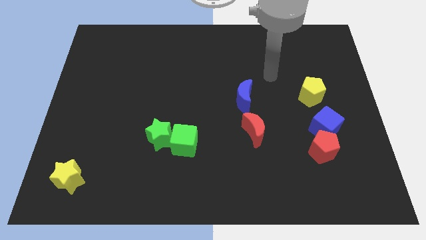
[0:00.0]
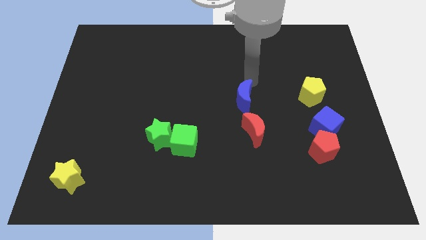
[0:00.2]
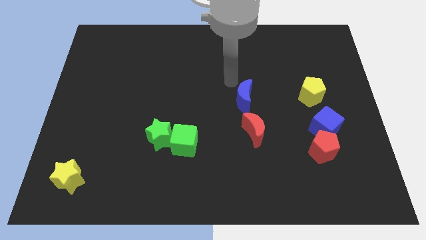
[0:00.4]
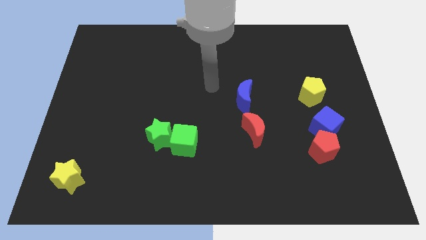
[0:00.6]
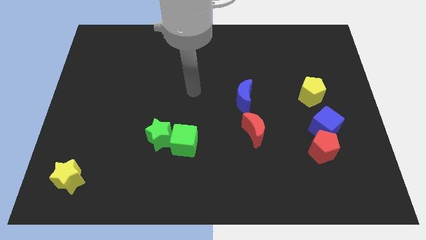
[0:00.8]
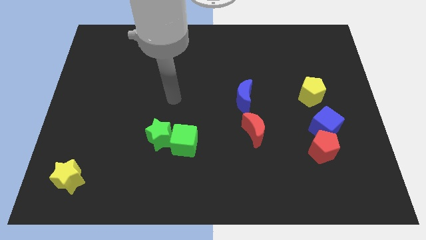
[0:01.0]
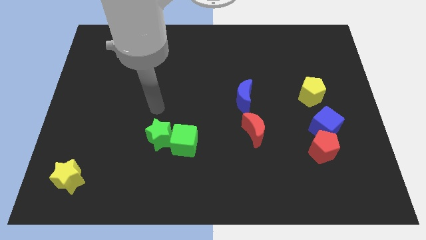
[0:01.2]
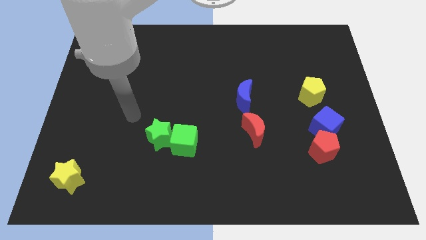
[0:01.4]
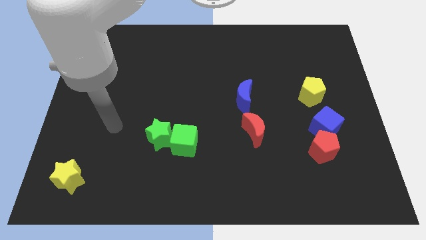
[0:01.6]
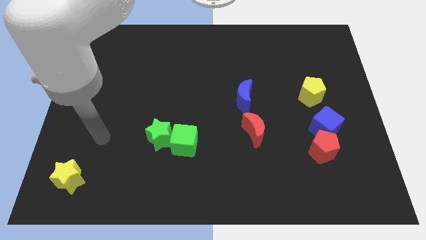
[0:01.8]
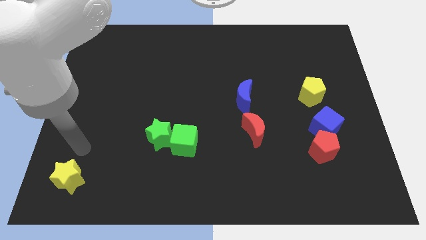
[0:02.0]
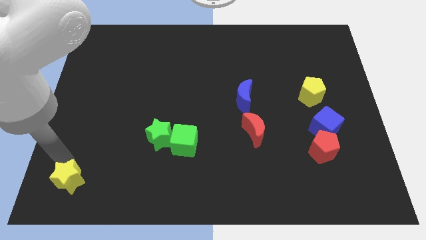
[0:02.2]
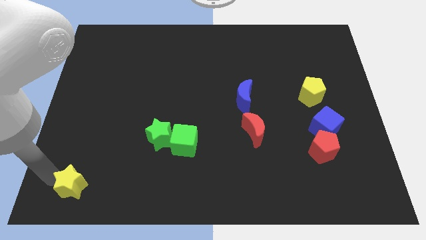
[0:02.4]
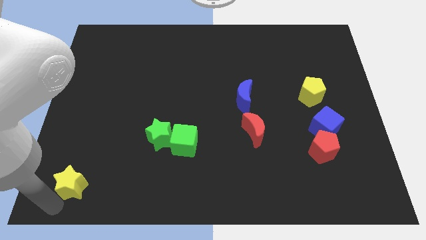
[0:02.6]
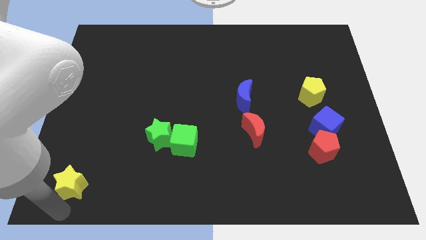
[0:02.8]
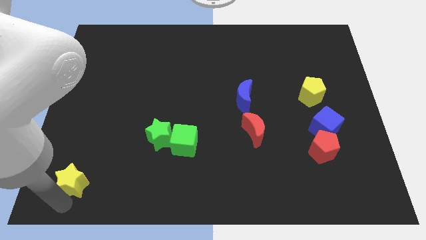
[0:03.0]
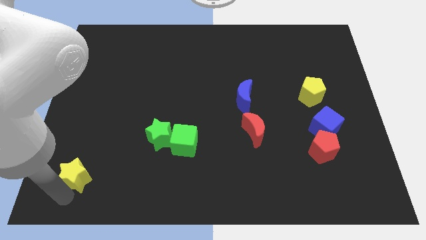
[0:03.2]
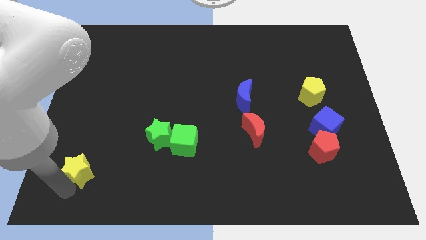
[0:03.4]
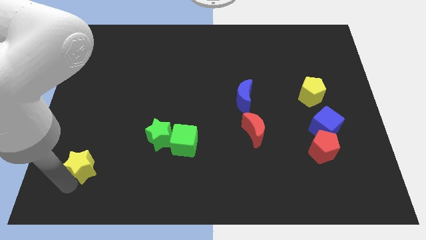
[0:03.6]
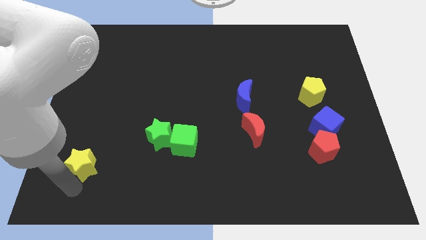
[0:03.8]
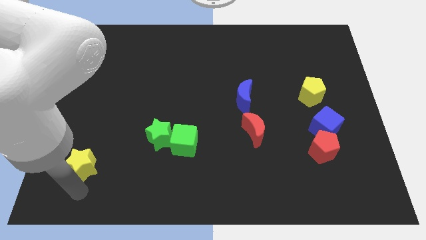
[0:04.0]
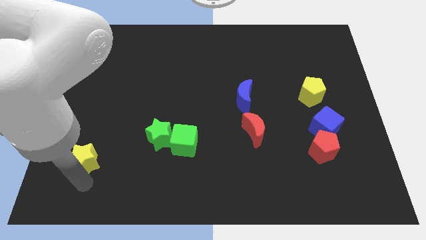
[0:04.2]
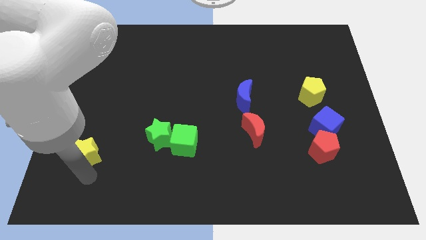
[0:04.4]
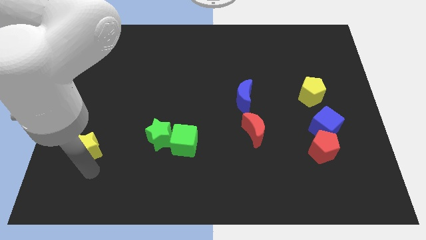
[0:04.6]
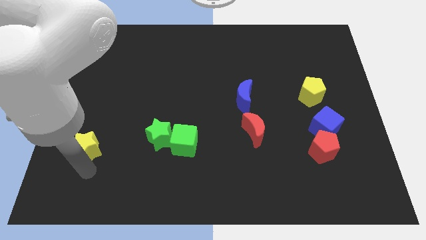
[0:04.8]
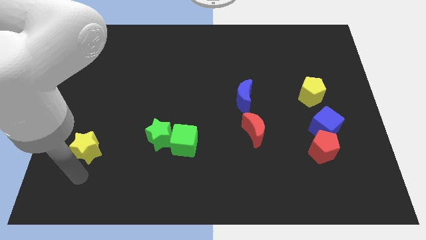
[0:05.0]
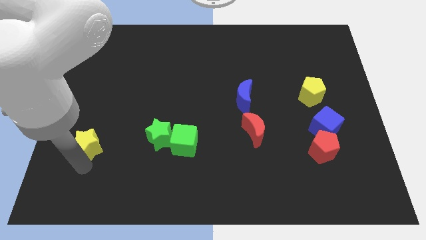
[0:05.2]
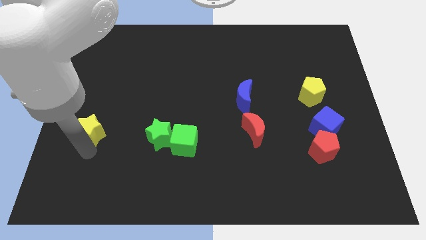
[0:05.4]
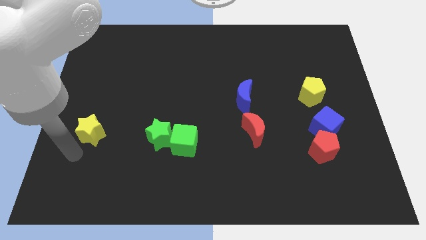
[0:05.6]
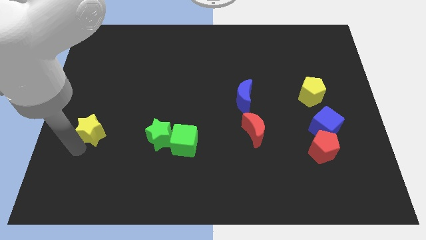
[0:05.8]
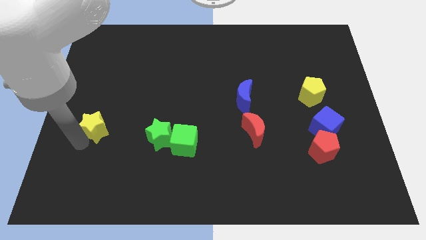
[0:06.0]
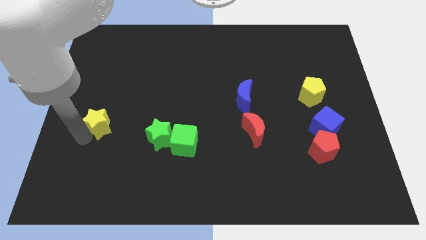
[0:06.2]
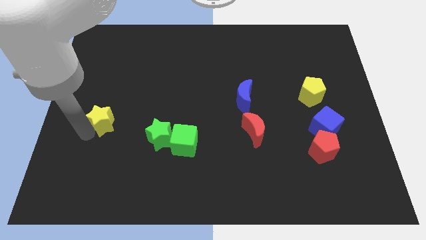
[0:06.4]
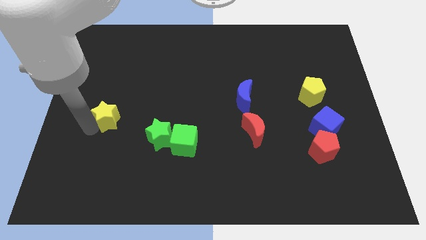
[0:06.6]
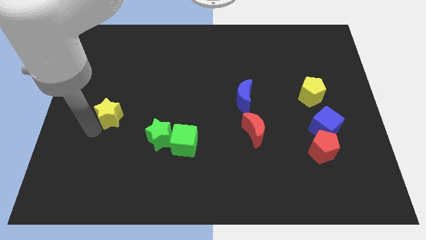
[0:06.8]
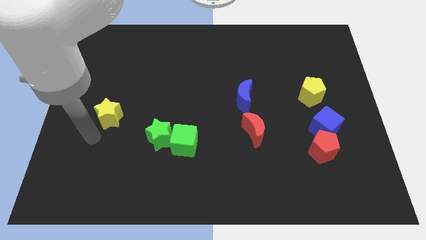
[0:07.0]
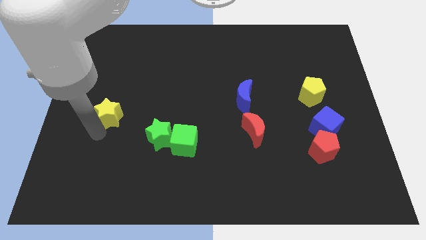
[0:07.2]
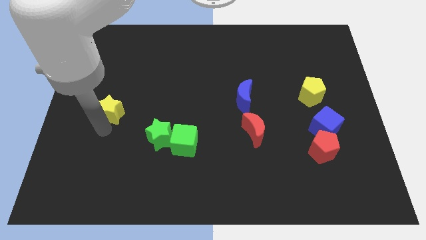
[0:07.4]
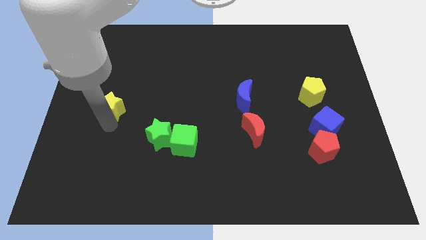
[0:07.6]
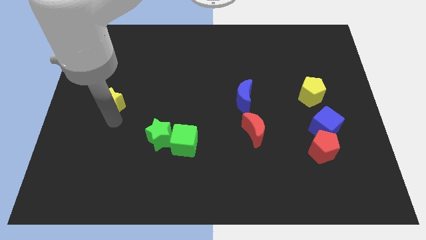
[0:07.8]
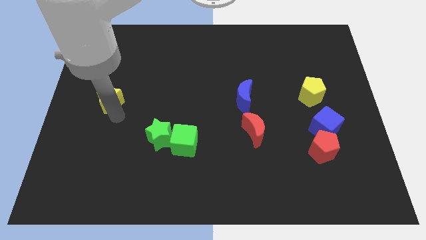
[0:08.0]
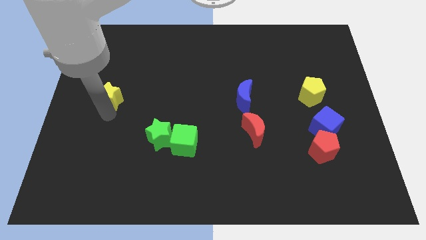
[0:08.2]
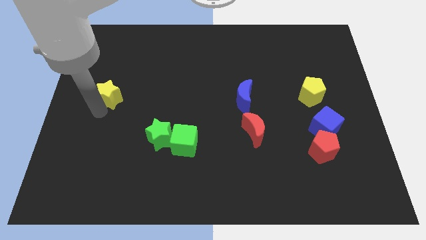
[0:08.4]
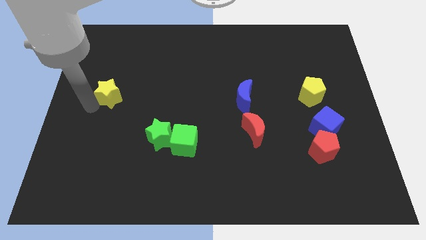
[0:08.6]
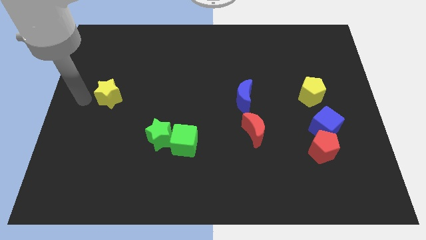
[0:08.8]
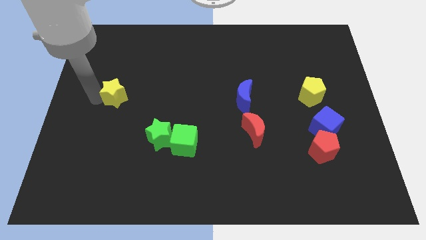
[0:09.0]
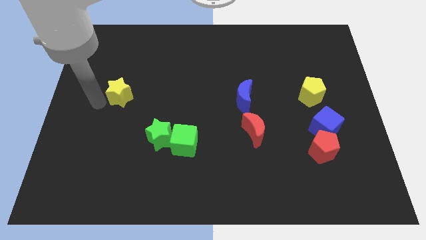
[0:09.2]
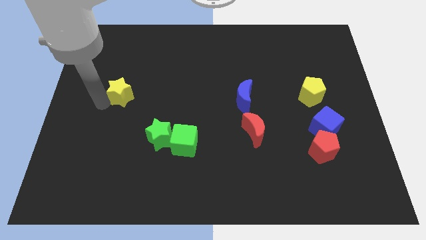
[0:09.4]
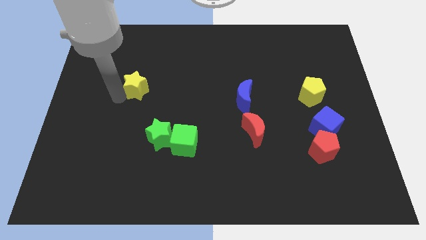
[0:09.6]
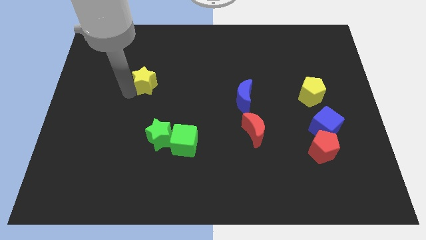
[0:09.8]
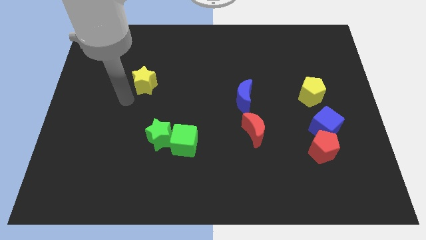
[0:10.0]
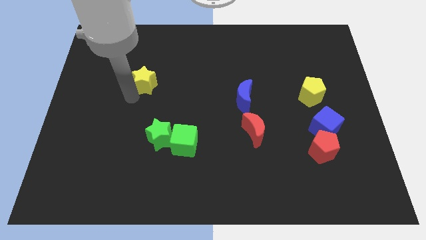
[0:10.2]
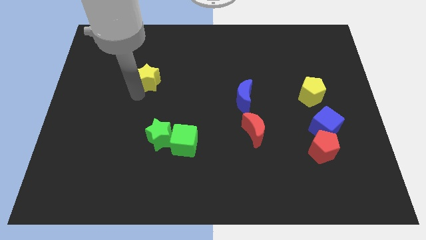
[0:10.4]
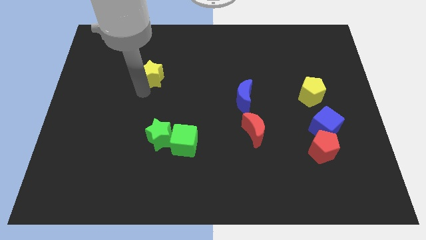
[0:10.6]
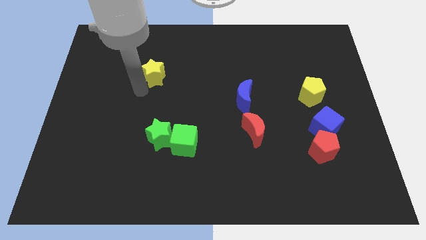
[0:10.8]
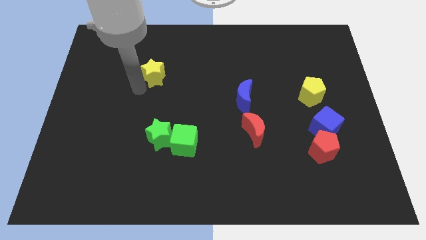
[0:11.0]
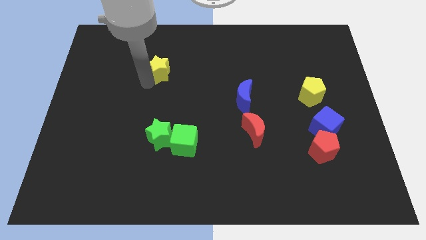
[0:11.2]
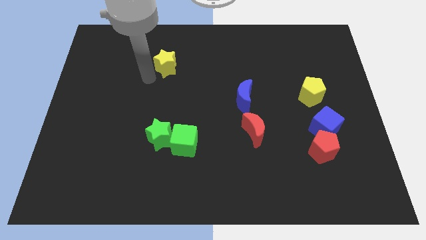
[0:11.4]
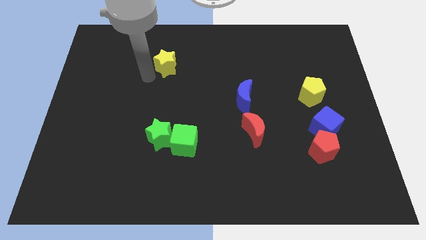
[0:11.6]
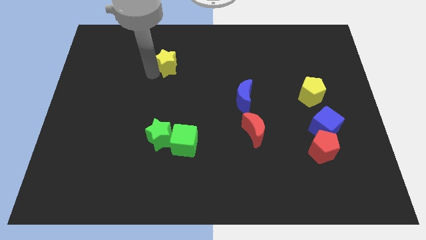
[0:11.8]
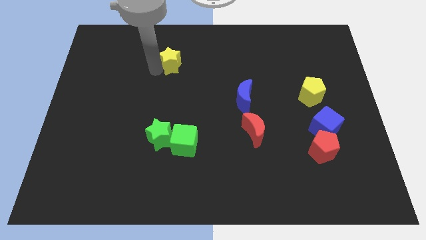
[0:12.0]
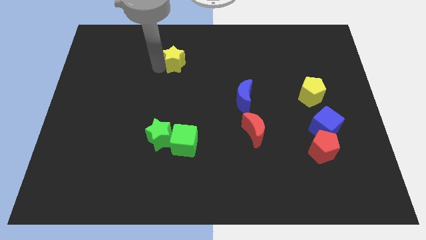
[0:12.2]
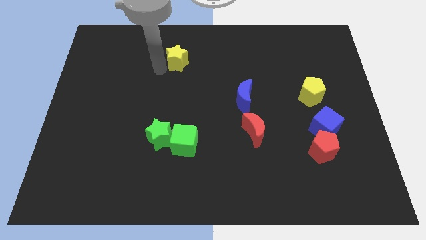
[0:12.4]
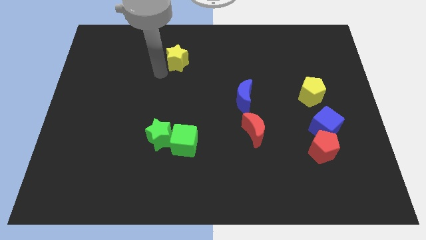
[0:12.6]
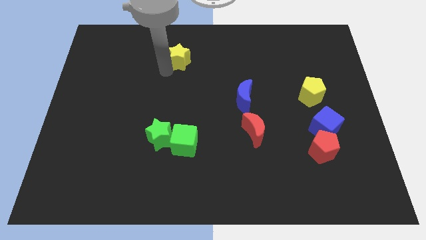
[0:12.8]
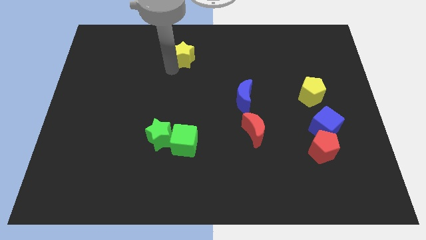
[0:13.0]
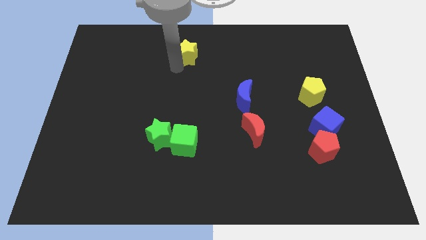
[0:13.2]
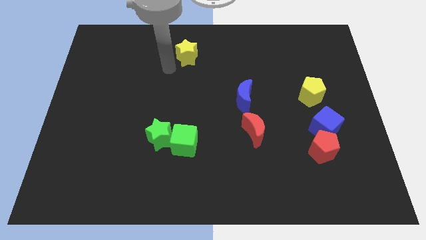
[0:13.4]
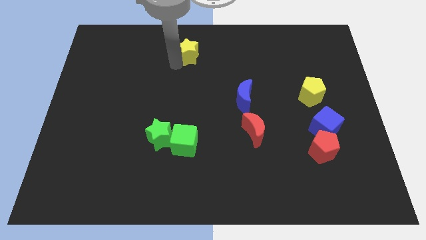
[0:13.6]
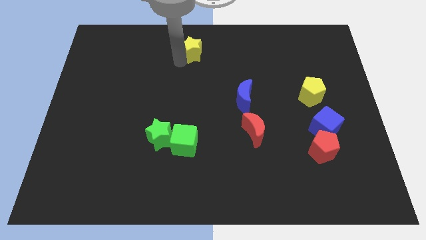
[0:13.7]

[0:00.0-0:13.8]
slide the yellow star to the towards your base
